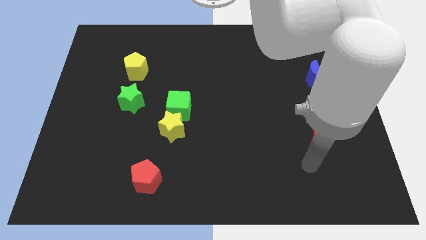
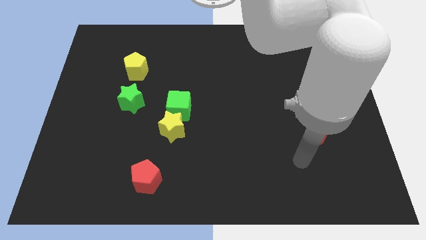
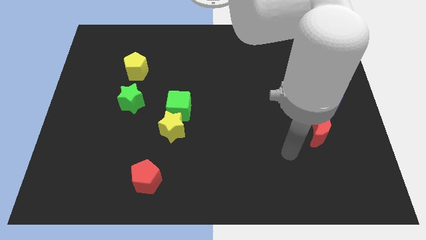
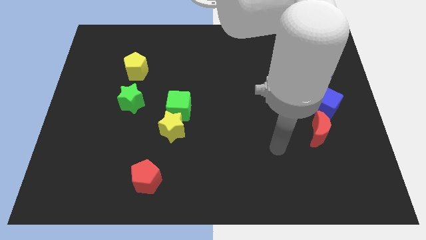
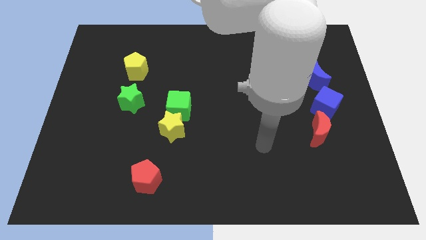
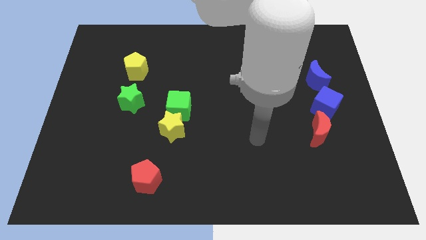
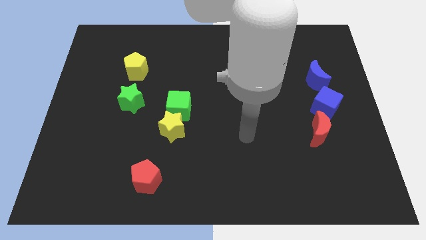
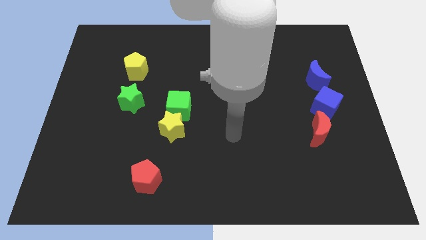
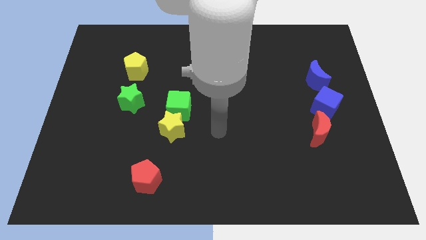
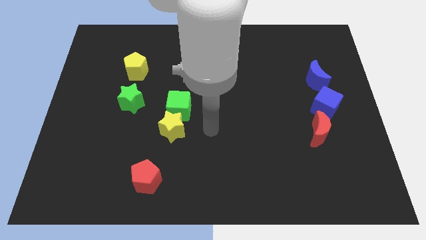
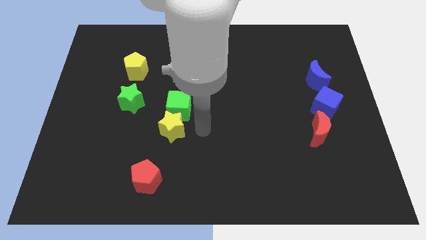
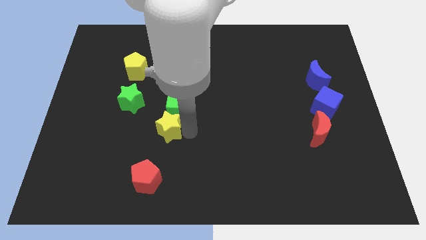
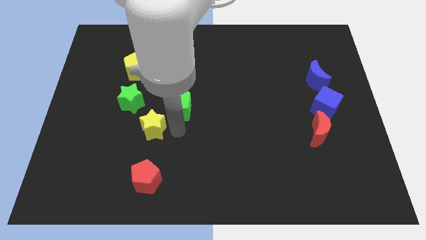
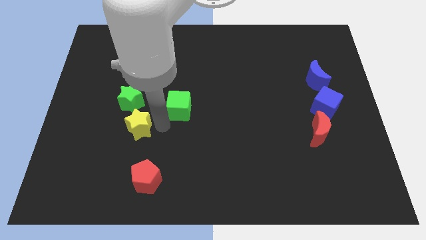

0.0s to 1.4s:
pull the green cube apart from the yellow star

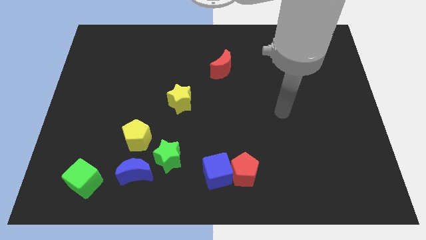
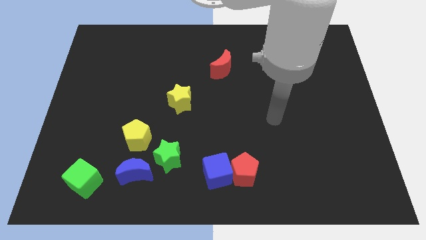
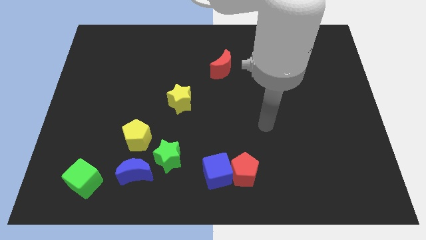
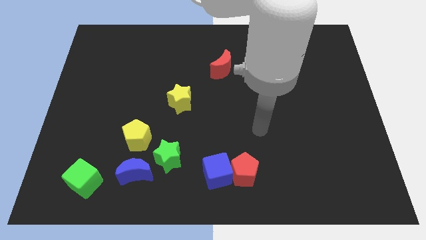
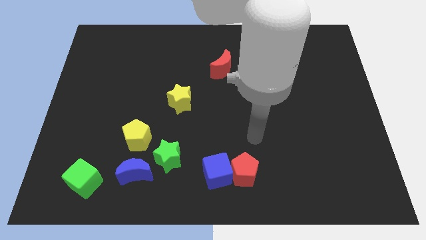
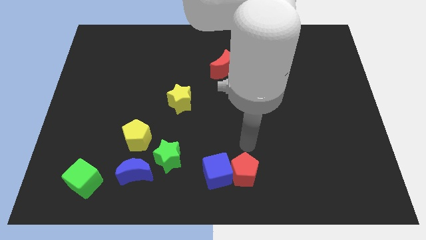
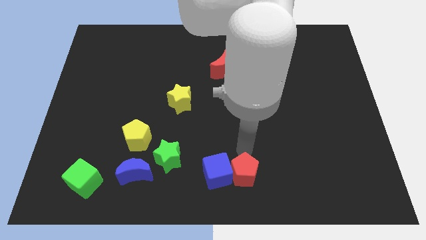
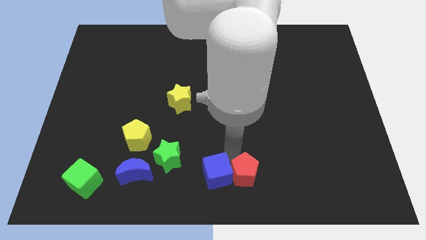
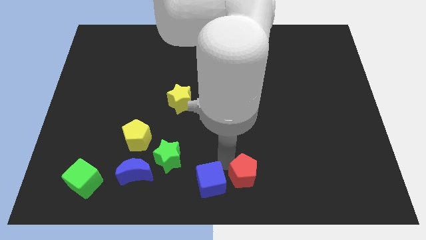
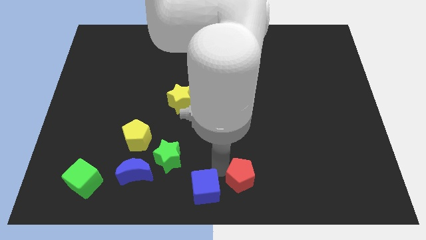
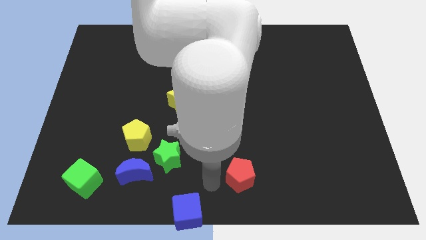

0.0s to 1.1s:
move the red pentagon away from the blue cube

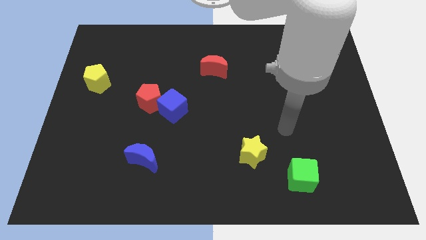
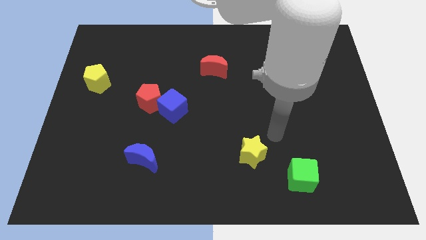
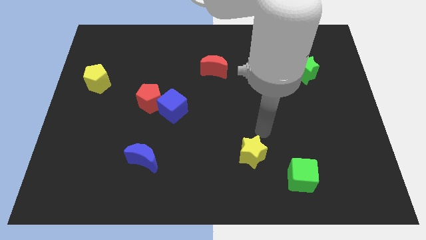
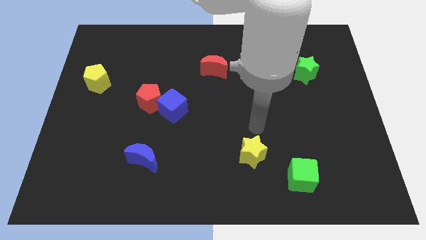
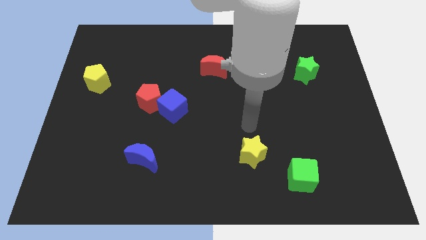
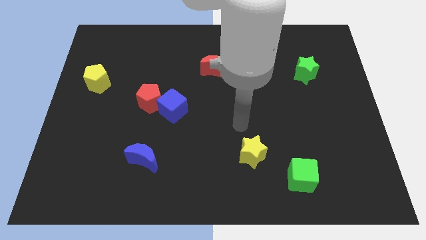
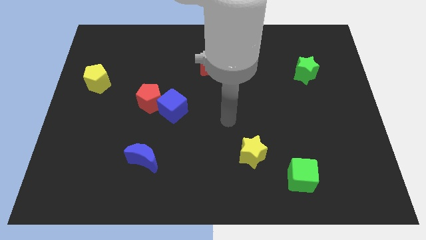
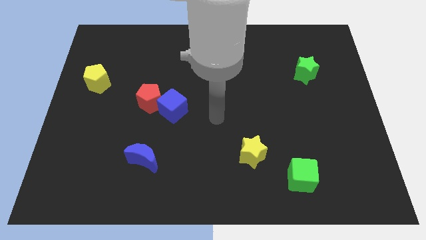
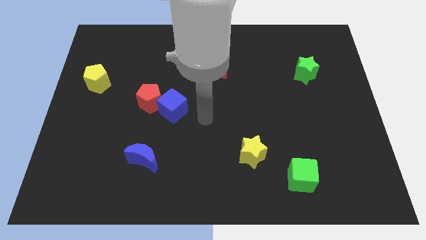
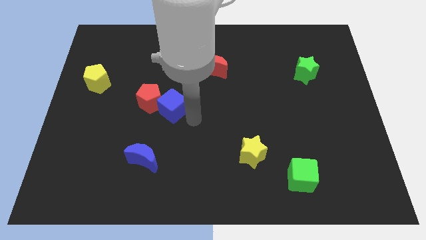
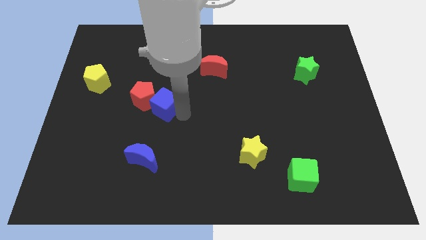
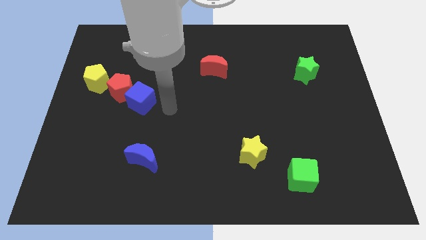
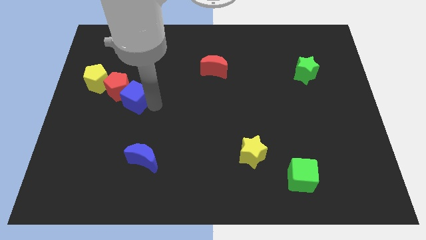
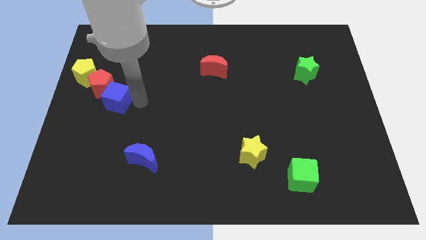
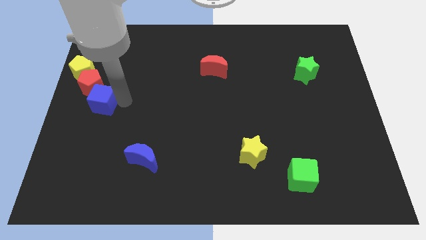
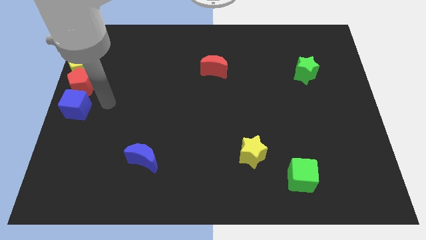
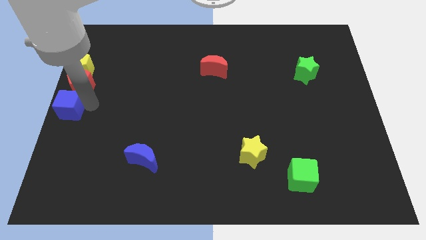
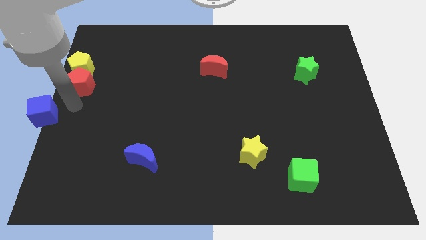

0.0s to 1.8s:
separate the red pentagon from the blue cube

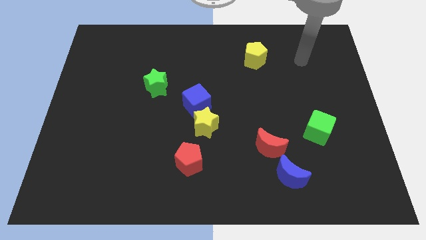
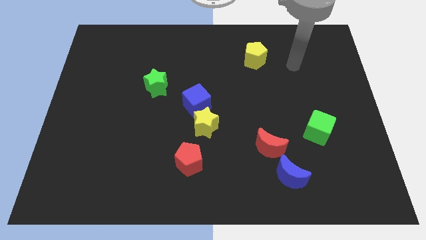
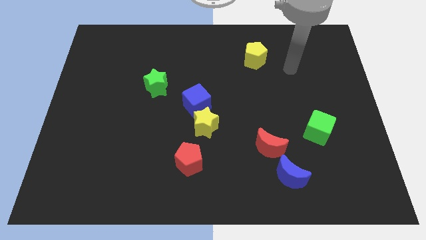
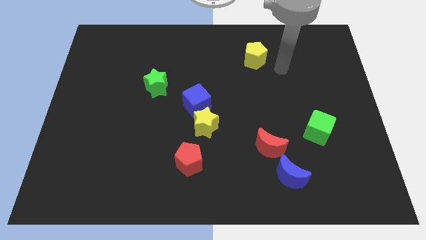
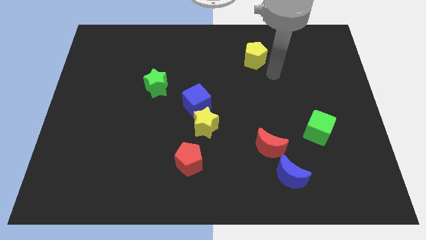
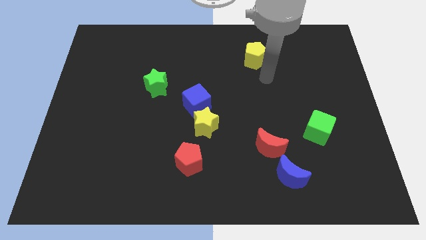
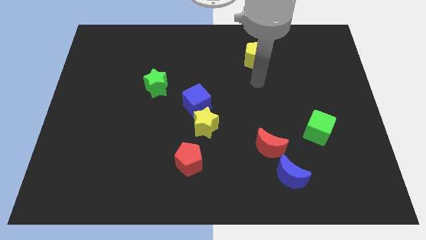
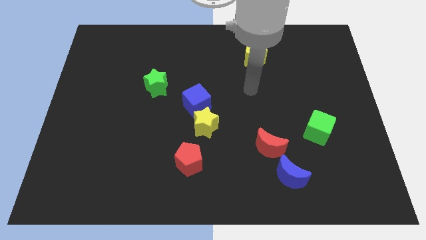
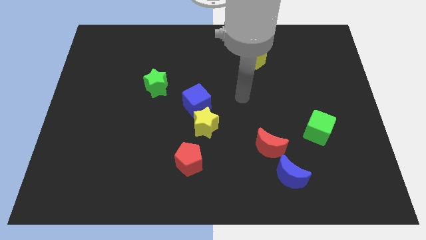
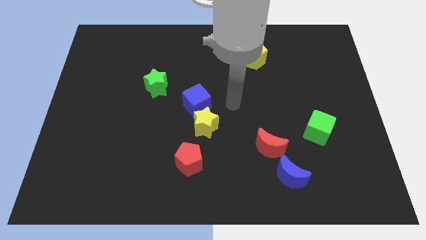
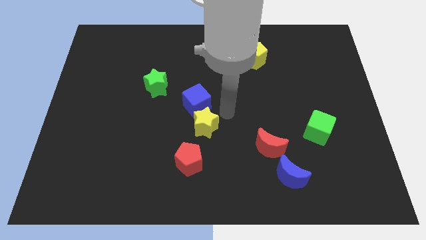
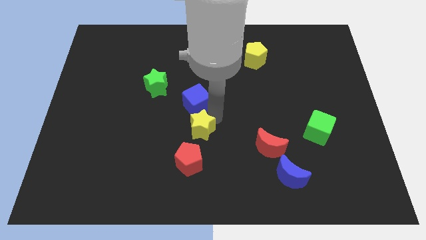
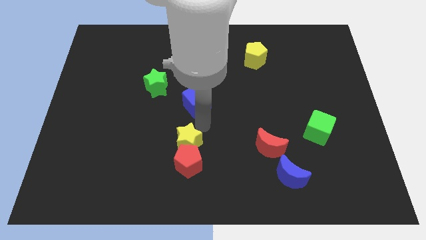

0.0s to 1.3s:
move the blue cube away from the yellow star

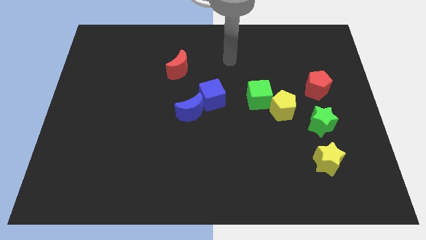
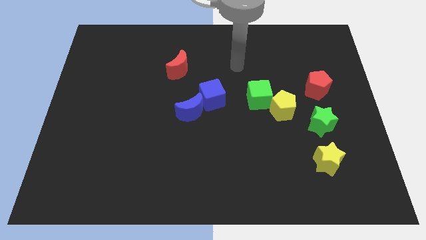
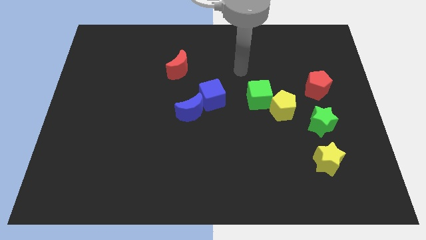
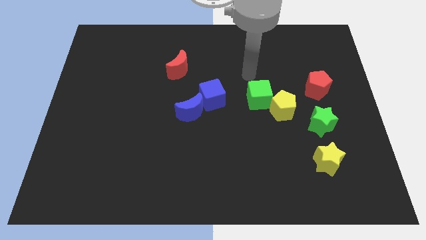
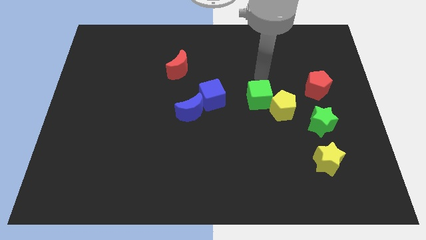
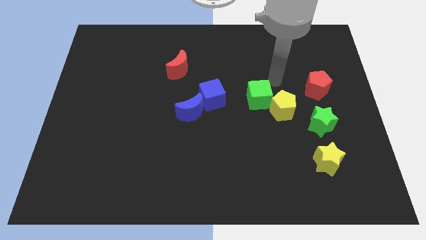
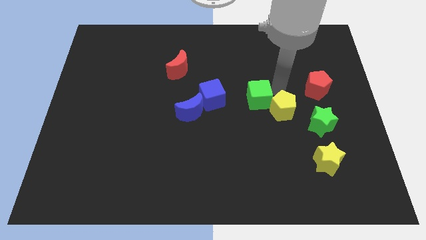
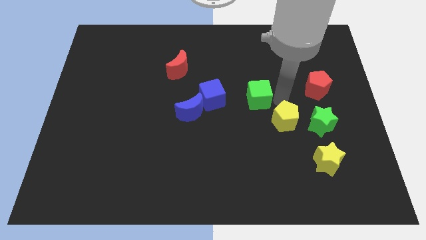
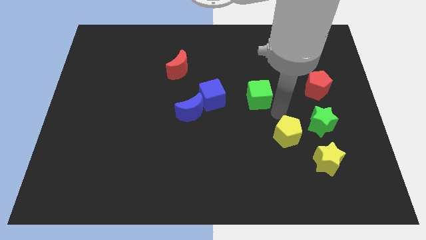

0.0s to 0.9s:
separate the green cube from the yellow pentagon

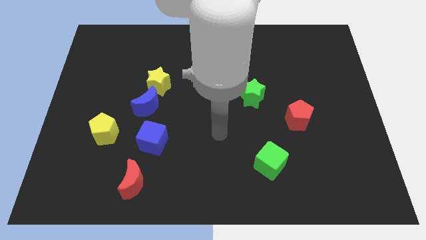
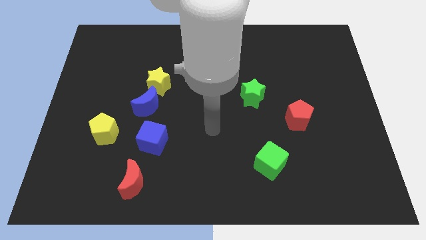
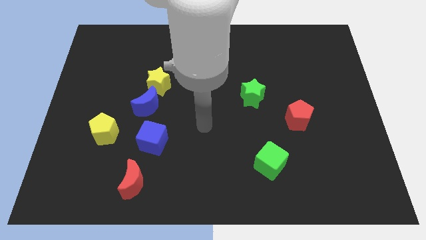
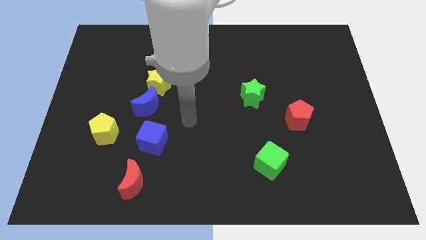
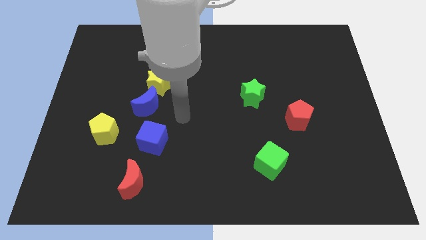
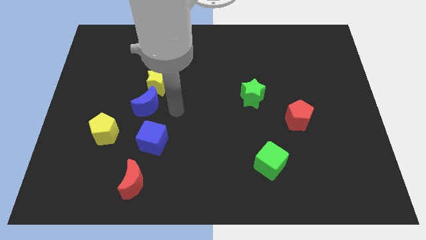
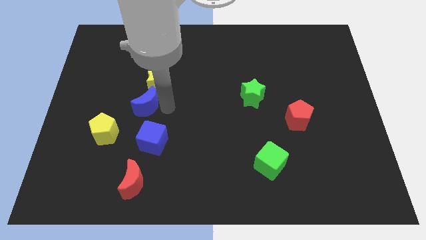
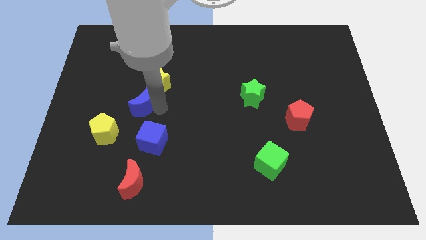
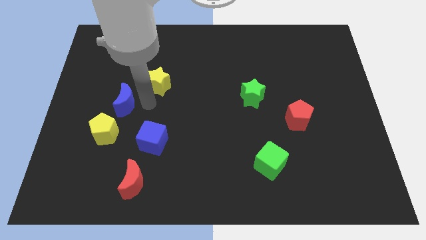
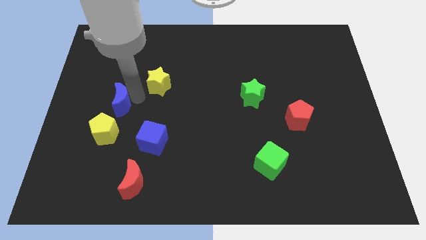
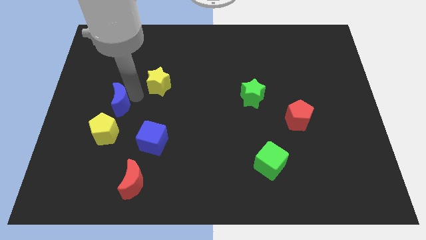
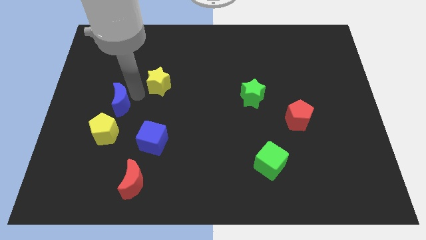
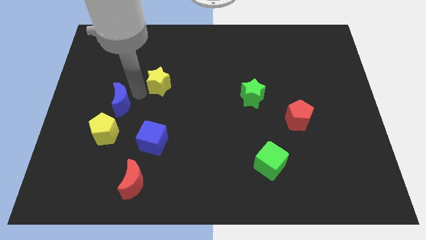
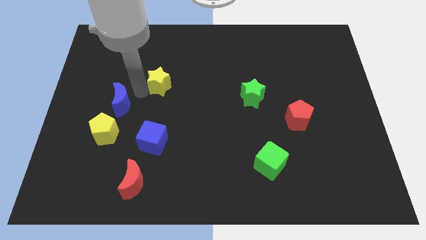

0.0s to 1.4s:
pull the yellow star apart from the blue moon

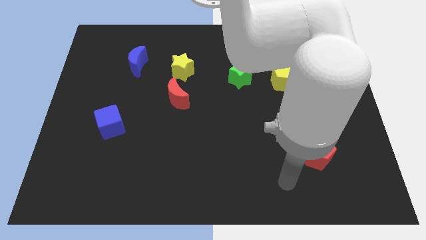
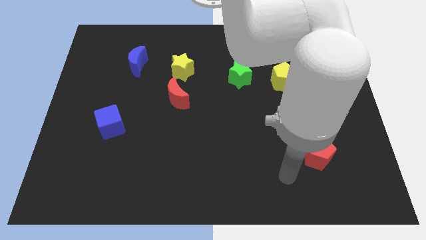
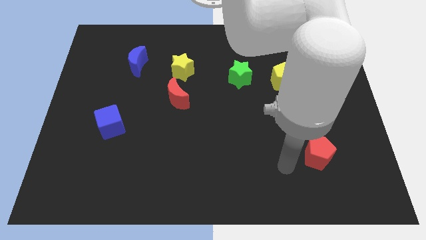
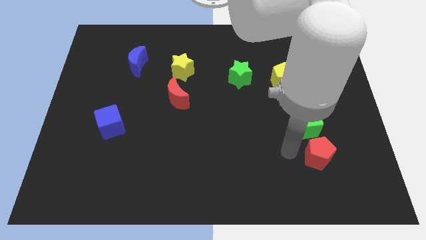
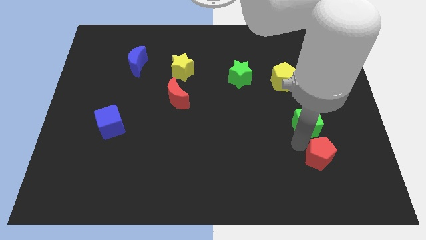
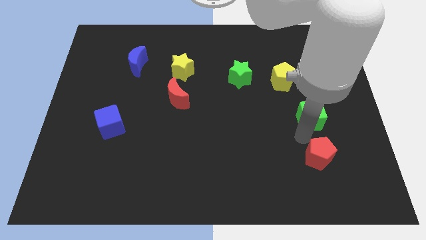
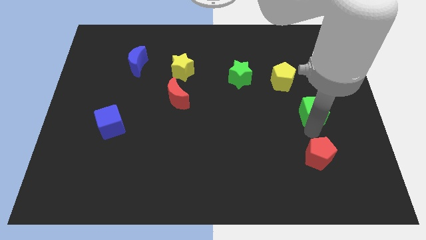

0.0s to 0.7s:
move the red pentagon away from the green cube

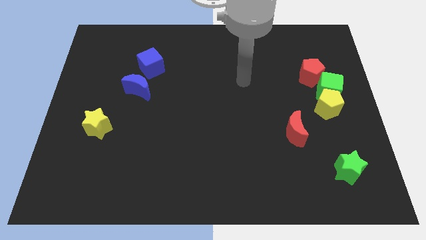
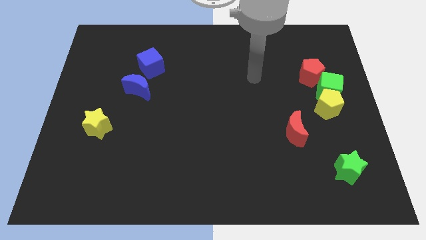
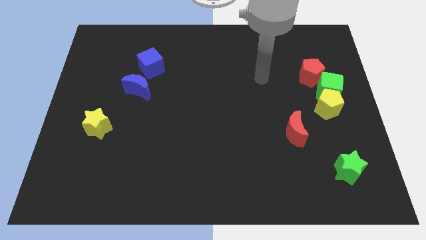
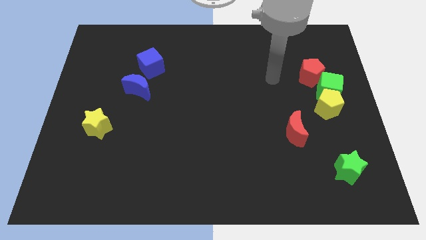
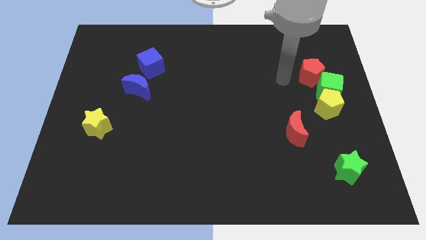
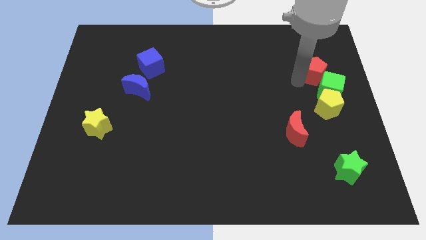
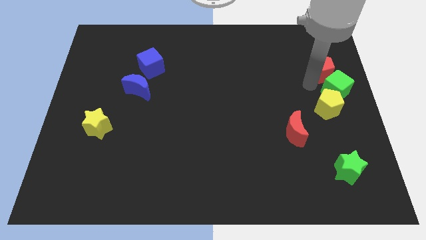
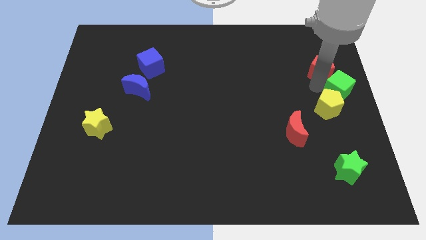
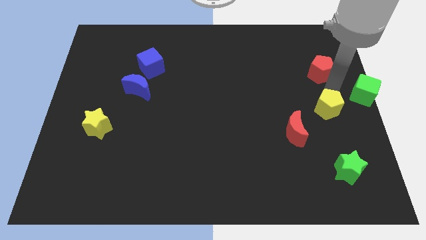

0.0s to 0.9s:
separate the yellow pentagon from the green cube
